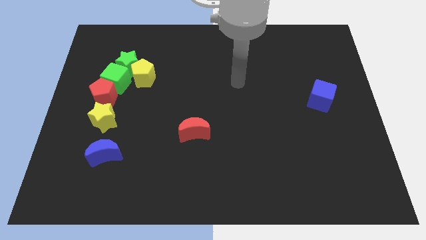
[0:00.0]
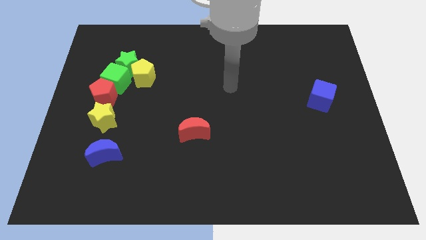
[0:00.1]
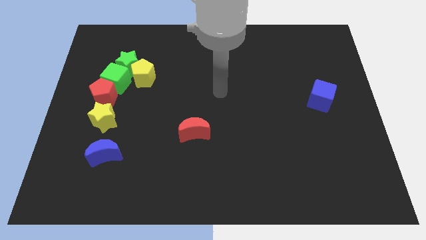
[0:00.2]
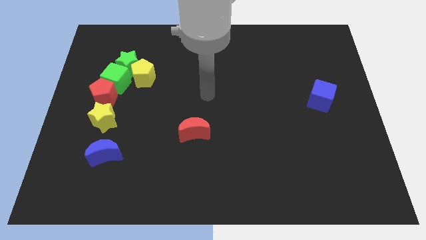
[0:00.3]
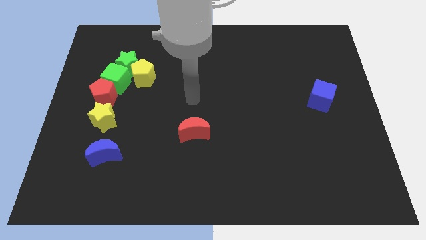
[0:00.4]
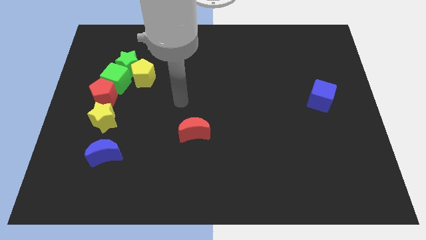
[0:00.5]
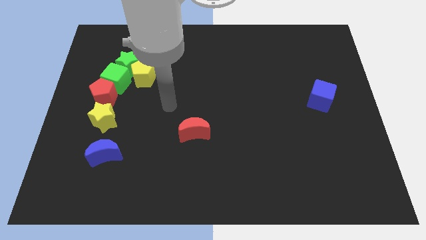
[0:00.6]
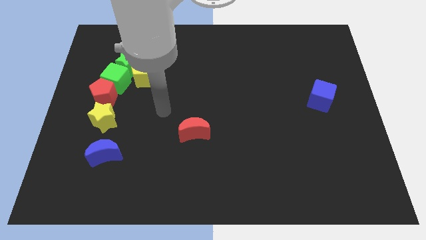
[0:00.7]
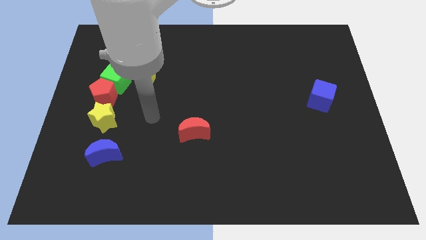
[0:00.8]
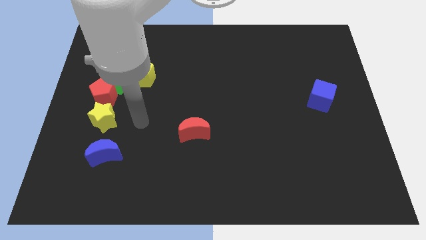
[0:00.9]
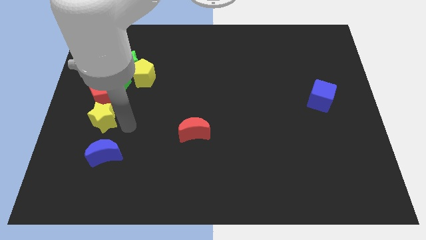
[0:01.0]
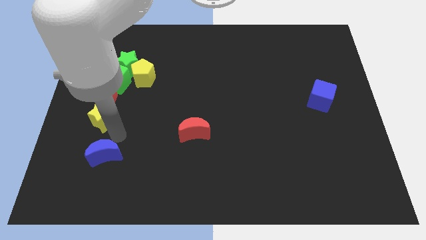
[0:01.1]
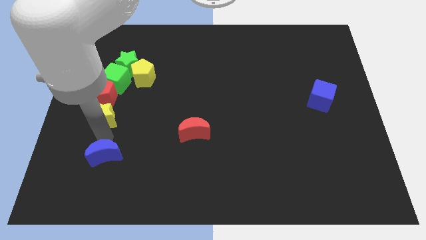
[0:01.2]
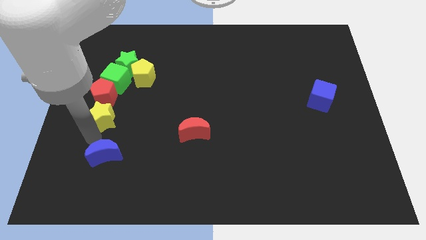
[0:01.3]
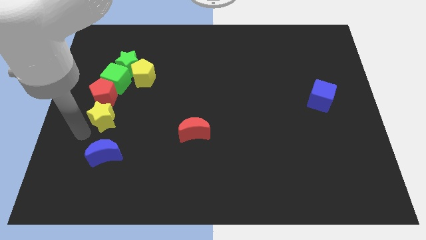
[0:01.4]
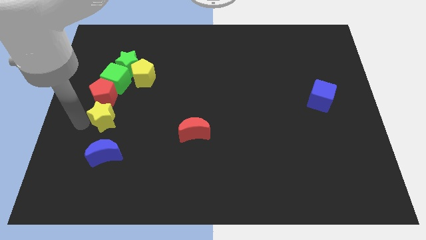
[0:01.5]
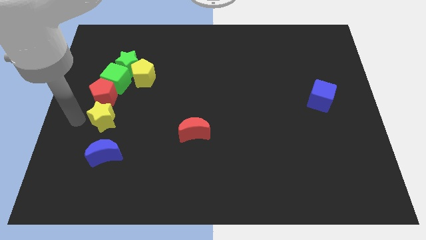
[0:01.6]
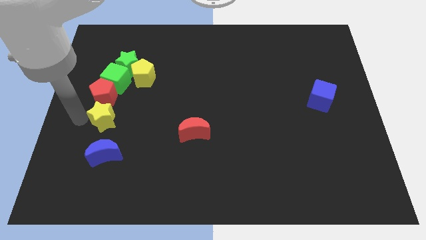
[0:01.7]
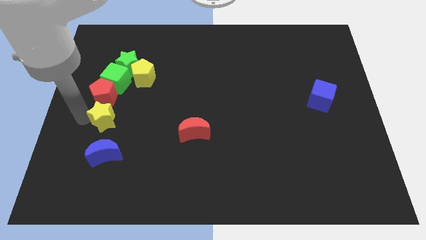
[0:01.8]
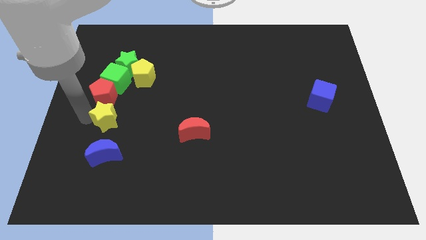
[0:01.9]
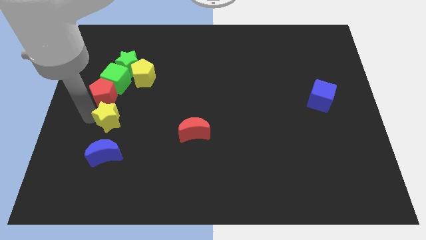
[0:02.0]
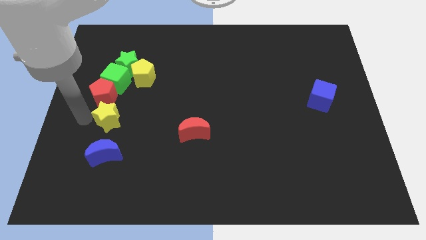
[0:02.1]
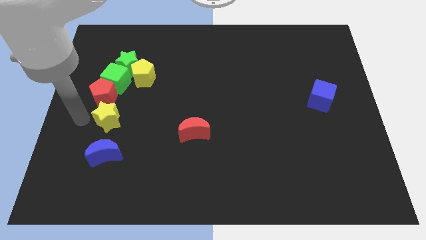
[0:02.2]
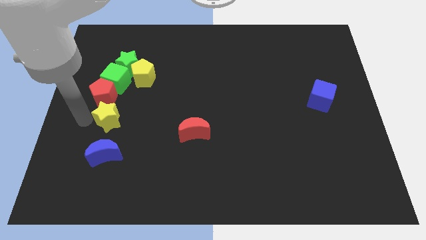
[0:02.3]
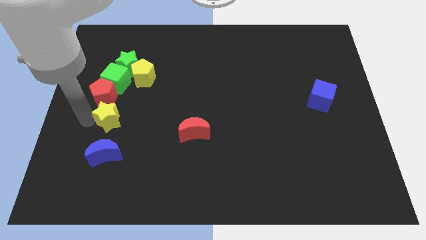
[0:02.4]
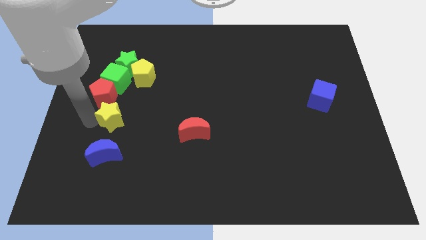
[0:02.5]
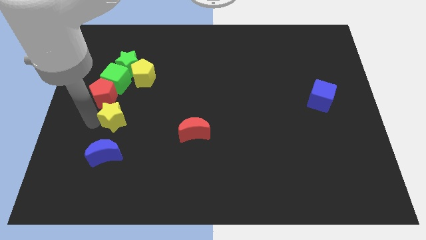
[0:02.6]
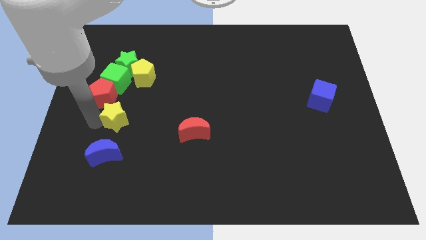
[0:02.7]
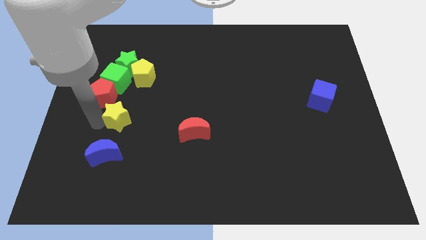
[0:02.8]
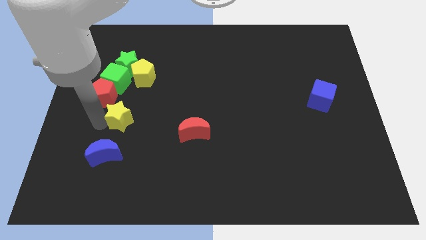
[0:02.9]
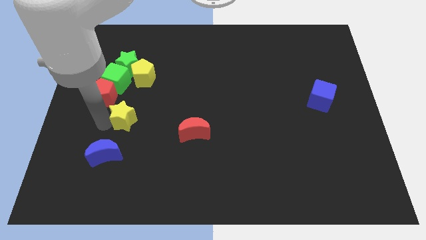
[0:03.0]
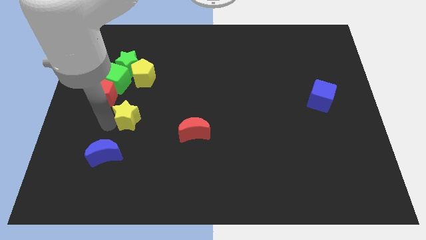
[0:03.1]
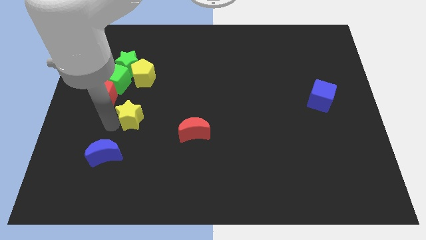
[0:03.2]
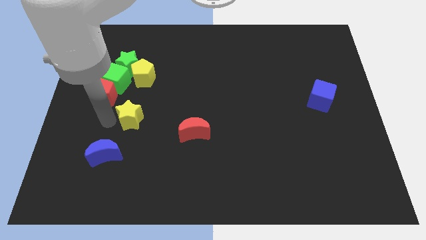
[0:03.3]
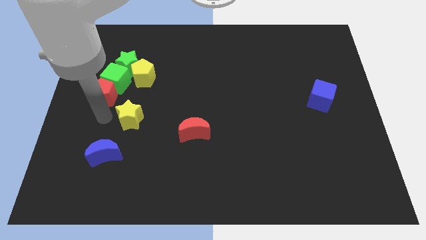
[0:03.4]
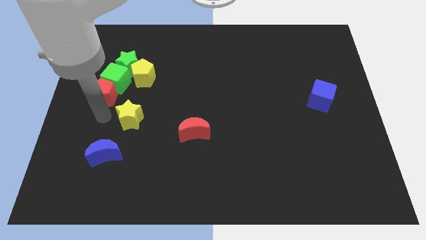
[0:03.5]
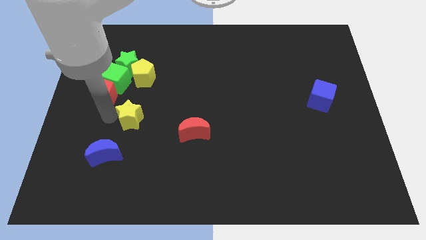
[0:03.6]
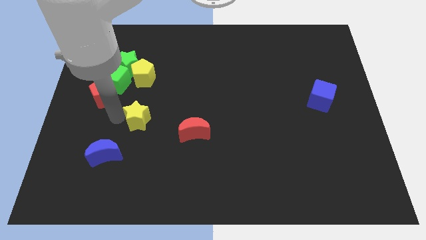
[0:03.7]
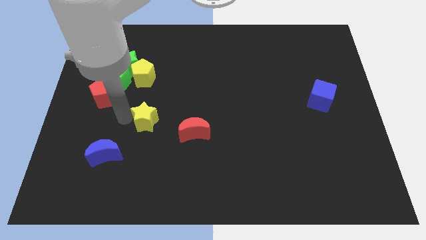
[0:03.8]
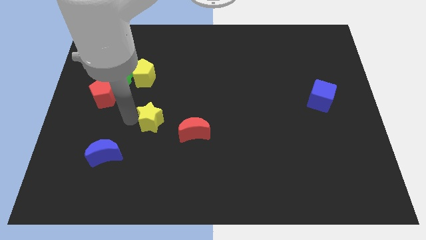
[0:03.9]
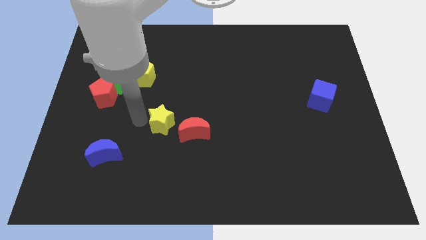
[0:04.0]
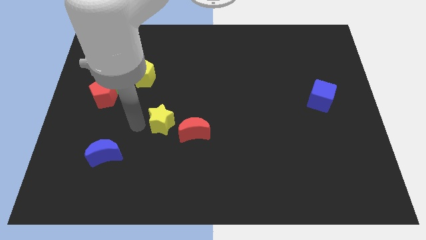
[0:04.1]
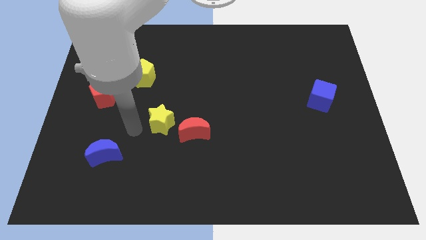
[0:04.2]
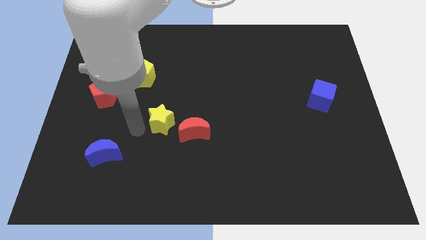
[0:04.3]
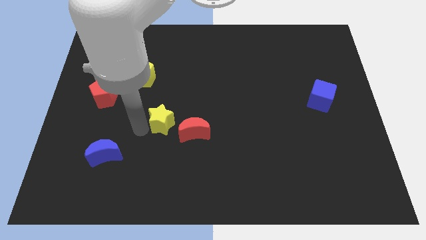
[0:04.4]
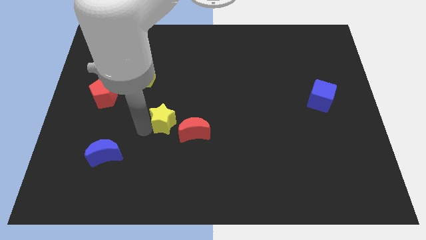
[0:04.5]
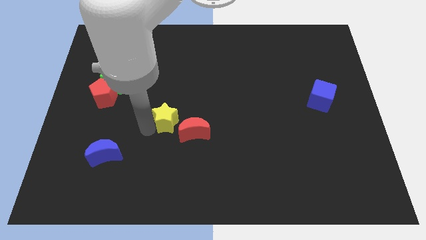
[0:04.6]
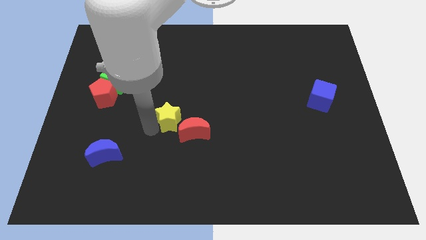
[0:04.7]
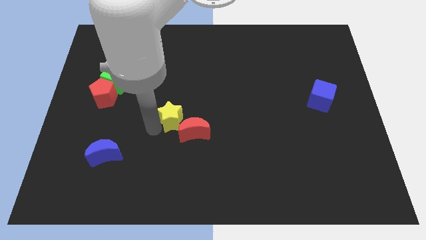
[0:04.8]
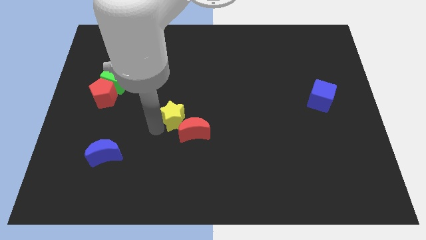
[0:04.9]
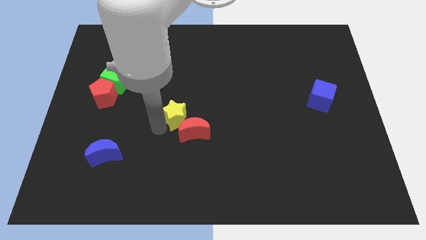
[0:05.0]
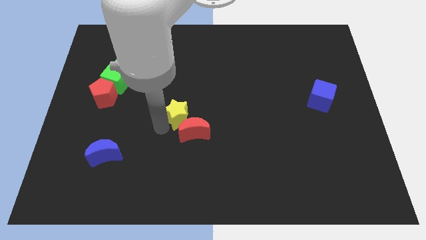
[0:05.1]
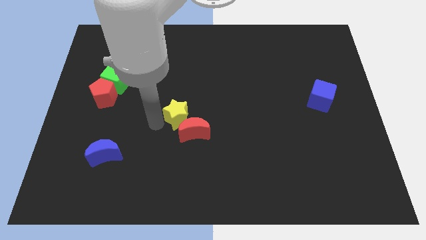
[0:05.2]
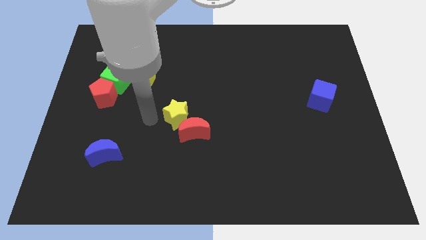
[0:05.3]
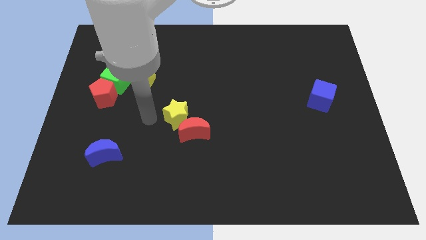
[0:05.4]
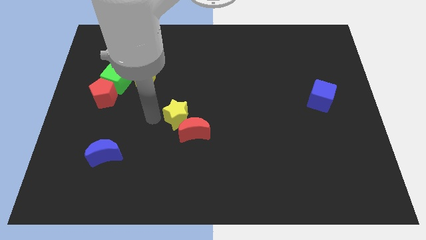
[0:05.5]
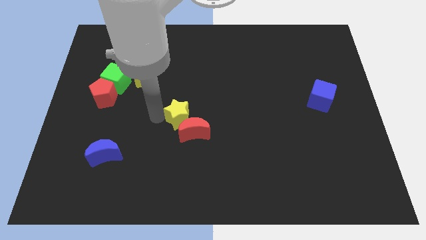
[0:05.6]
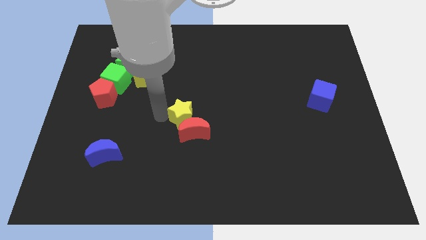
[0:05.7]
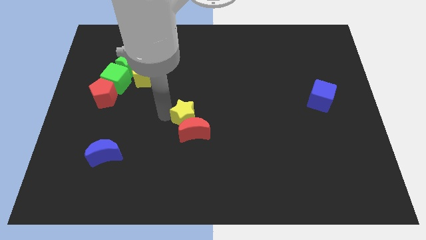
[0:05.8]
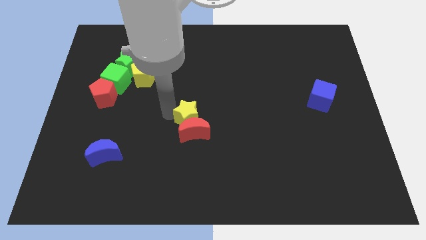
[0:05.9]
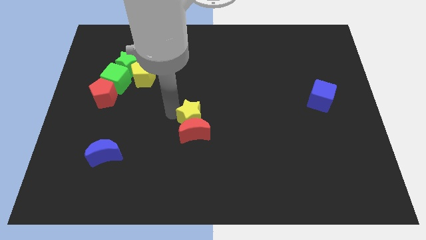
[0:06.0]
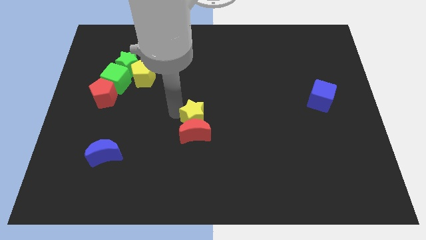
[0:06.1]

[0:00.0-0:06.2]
slide the yellow star right

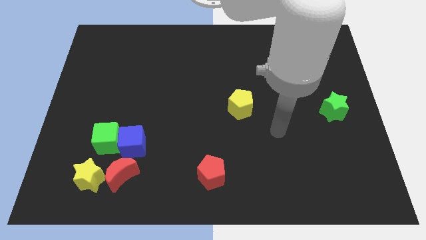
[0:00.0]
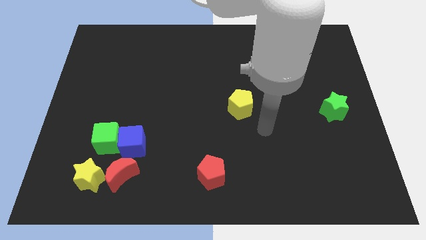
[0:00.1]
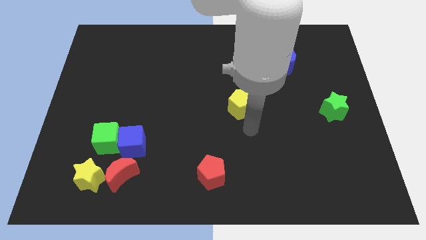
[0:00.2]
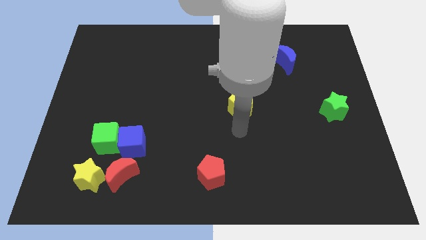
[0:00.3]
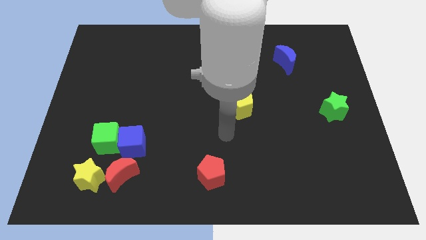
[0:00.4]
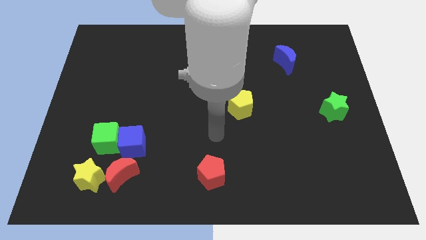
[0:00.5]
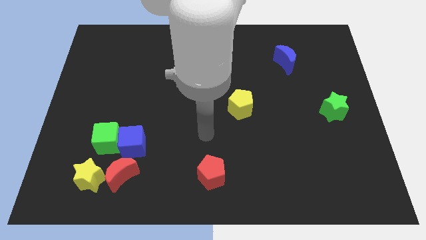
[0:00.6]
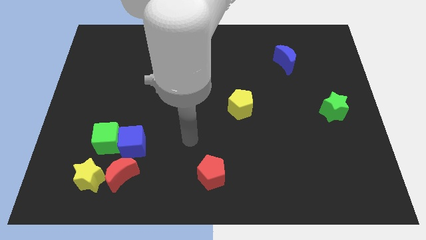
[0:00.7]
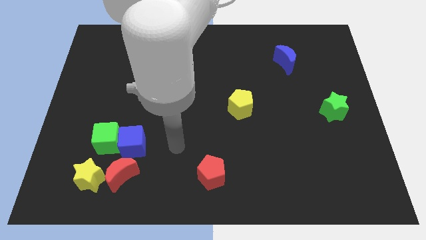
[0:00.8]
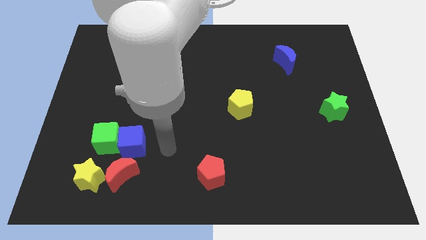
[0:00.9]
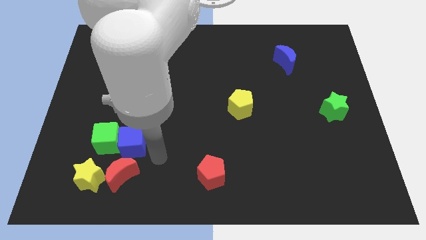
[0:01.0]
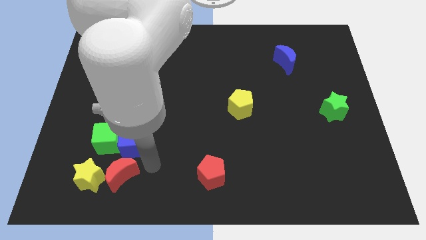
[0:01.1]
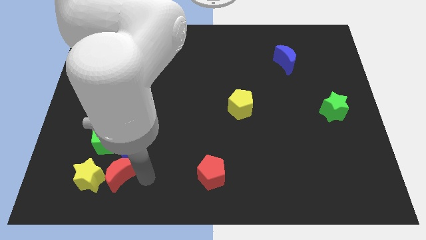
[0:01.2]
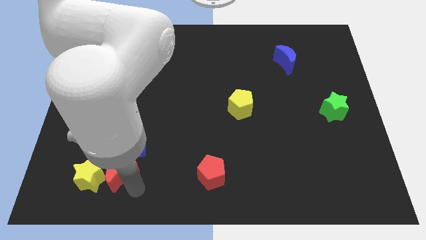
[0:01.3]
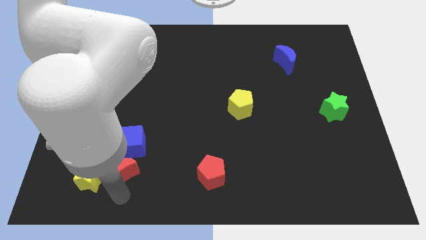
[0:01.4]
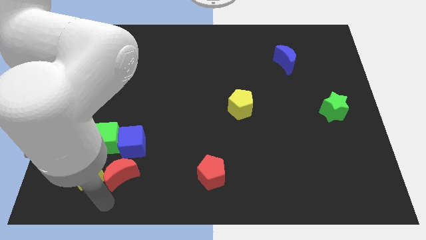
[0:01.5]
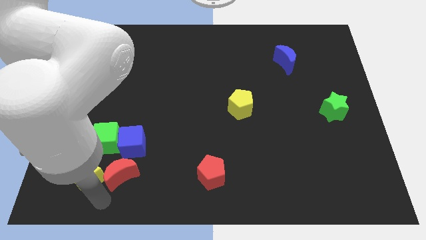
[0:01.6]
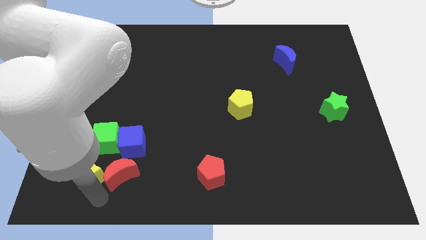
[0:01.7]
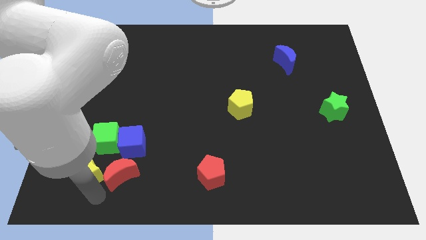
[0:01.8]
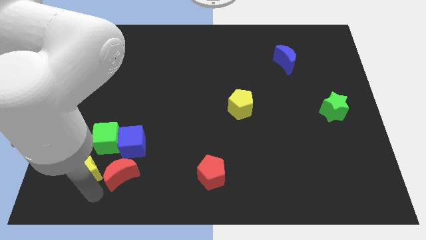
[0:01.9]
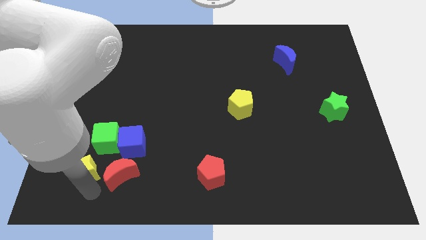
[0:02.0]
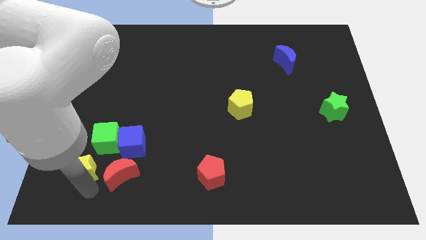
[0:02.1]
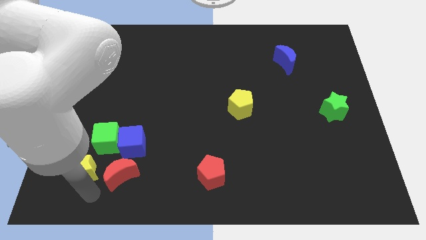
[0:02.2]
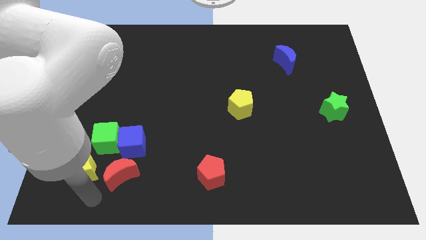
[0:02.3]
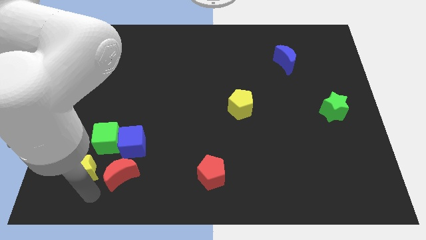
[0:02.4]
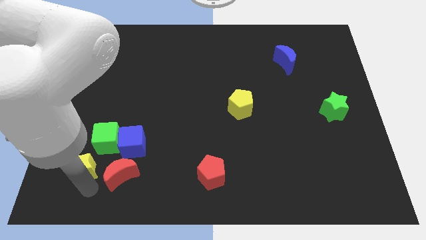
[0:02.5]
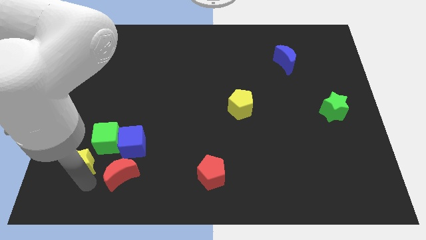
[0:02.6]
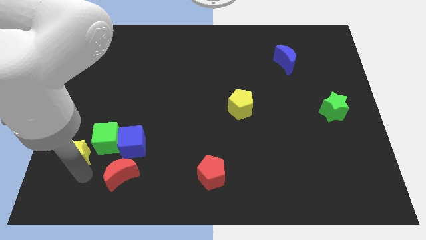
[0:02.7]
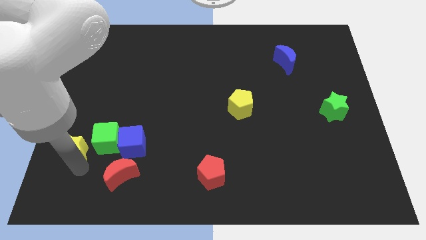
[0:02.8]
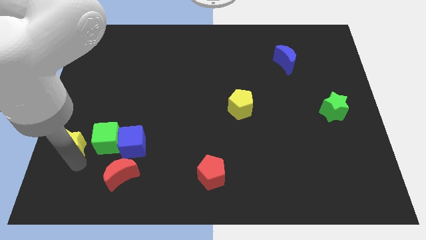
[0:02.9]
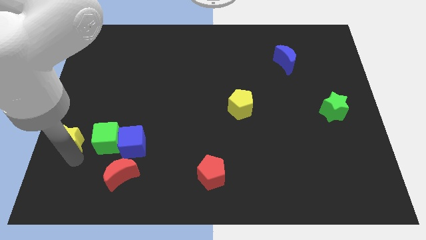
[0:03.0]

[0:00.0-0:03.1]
push the yellow star a little upwards
